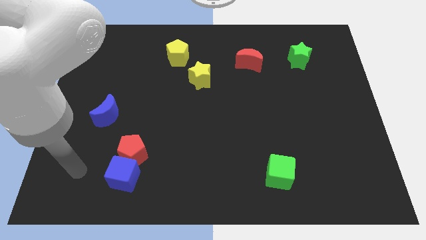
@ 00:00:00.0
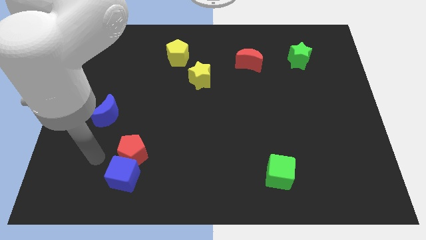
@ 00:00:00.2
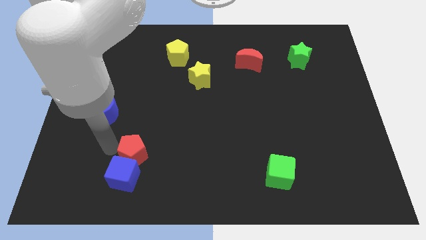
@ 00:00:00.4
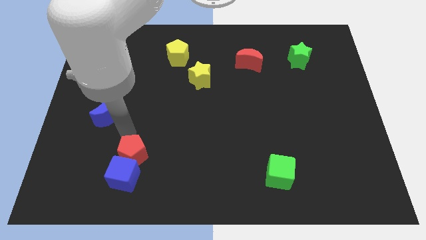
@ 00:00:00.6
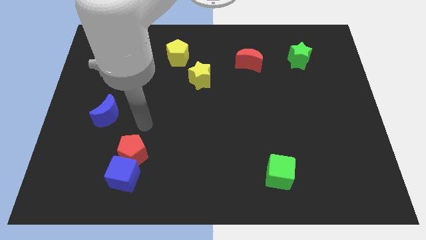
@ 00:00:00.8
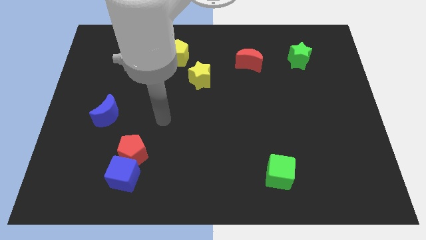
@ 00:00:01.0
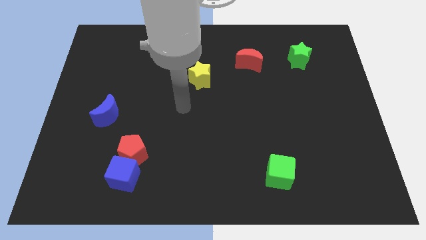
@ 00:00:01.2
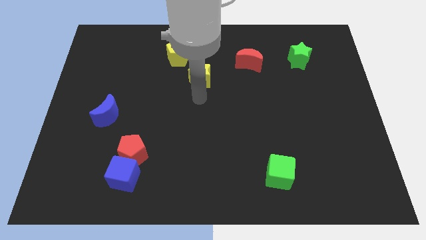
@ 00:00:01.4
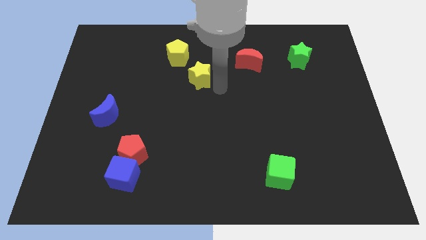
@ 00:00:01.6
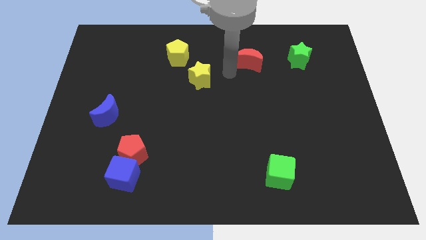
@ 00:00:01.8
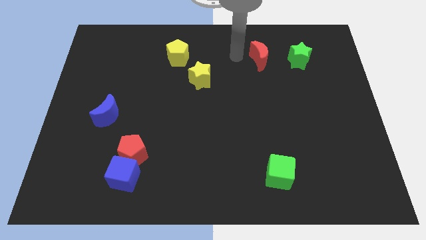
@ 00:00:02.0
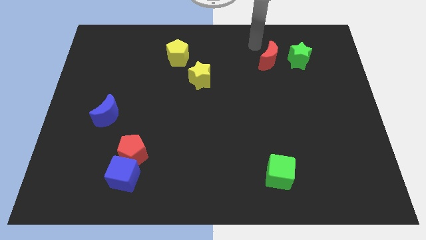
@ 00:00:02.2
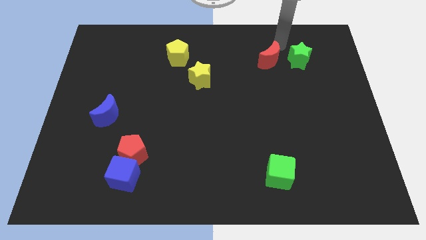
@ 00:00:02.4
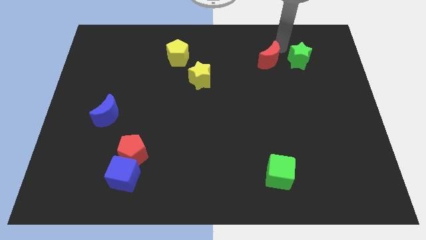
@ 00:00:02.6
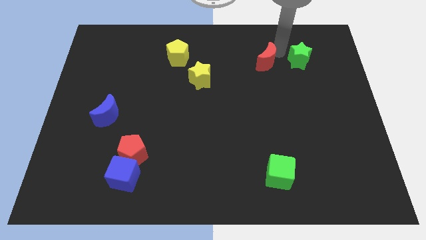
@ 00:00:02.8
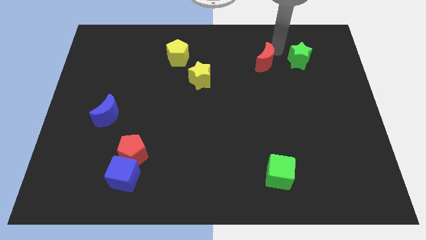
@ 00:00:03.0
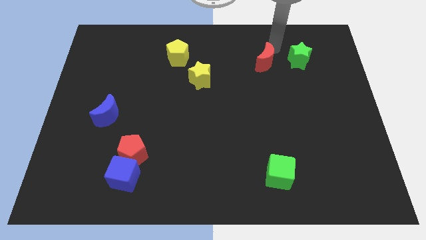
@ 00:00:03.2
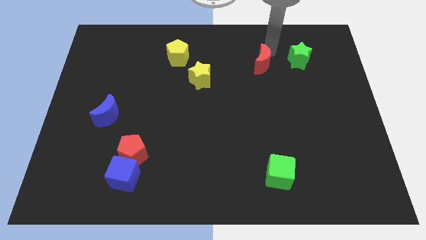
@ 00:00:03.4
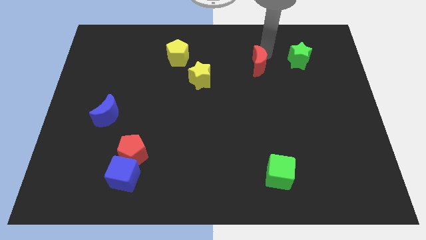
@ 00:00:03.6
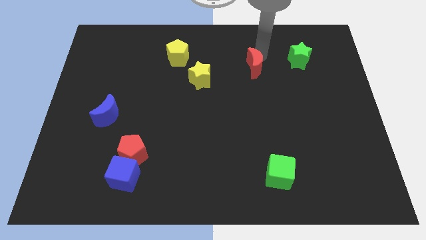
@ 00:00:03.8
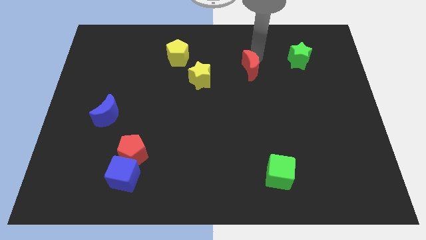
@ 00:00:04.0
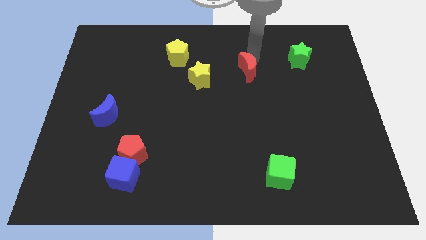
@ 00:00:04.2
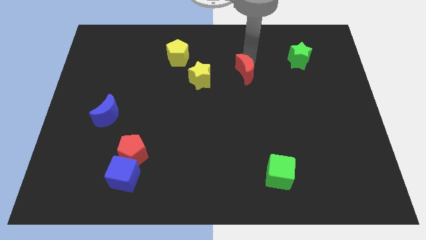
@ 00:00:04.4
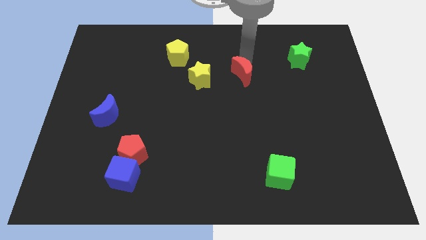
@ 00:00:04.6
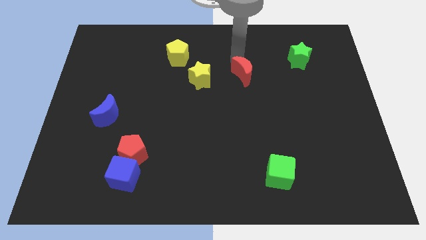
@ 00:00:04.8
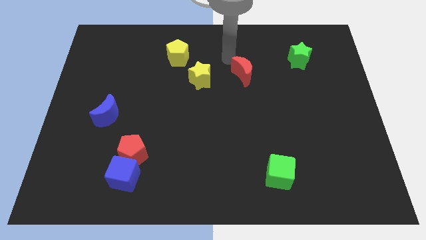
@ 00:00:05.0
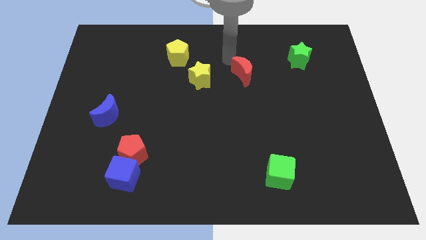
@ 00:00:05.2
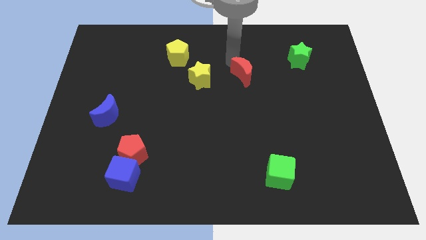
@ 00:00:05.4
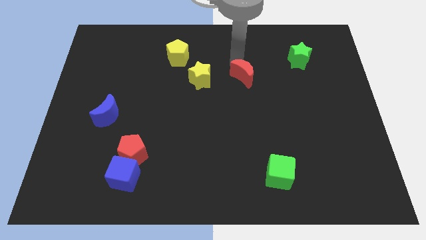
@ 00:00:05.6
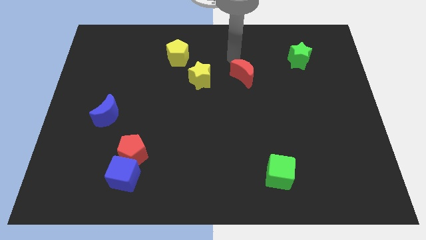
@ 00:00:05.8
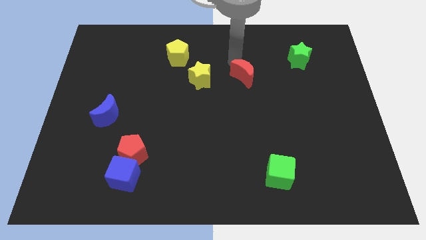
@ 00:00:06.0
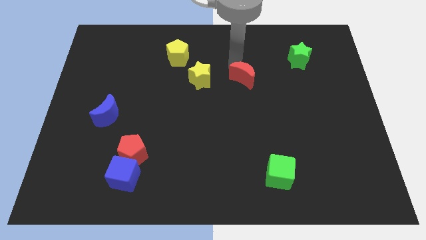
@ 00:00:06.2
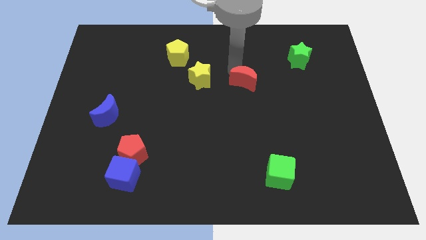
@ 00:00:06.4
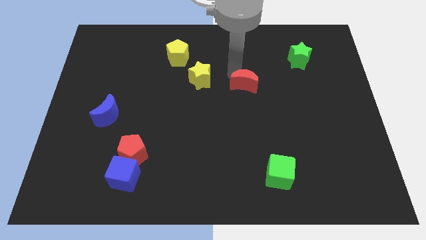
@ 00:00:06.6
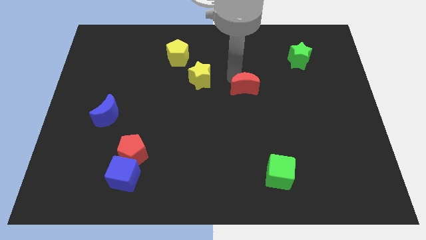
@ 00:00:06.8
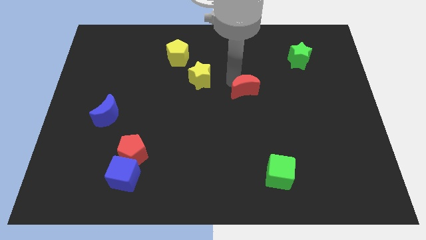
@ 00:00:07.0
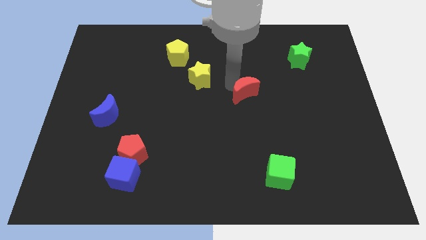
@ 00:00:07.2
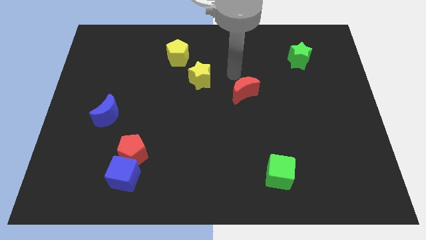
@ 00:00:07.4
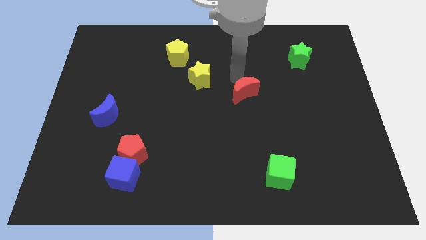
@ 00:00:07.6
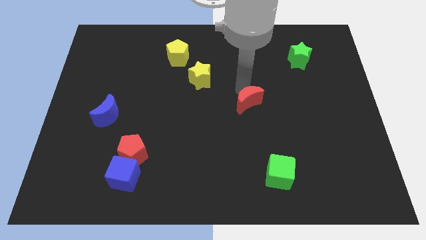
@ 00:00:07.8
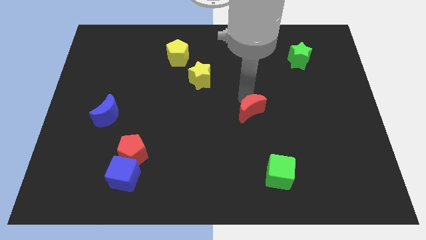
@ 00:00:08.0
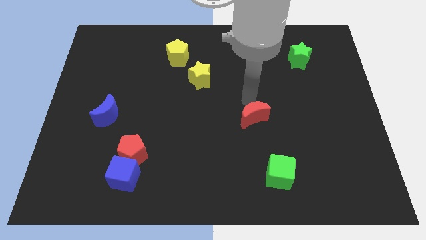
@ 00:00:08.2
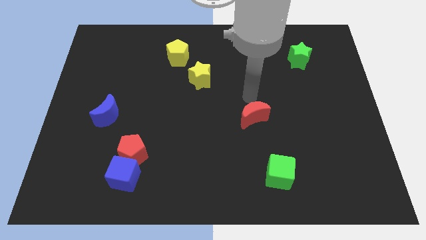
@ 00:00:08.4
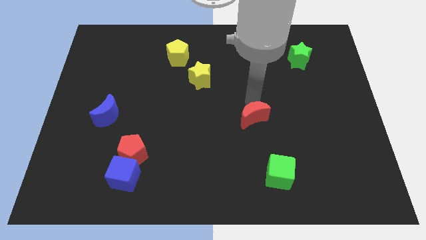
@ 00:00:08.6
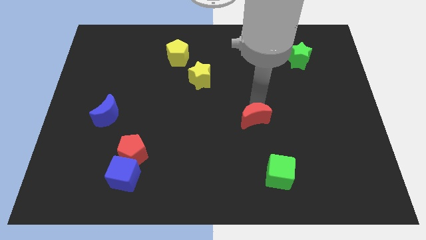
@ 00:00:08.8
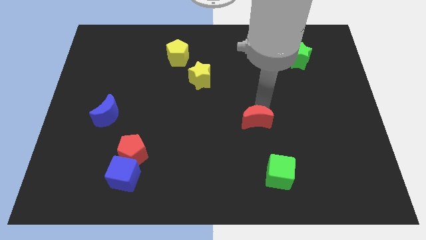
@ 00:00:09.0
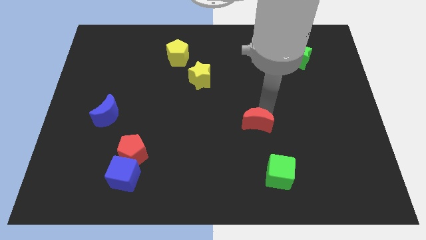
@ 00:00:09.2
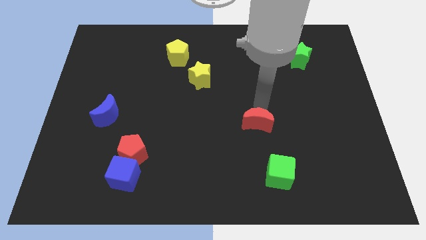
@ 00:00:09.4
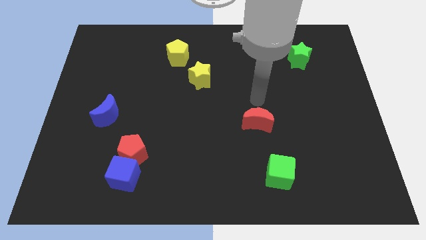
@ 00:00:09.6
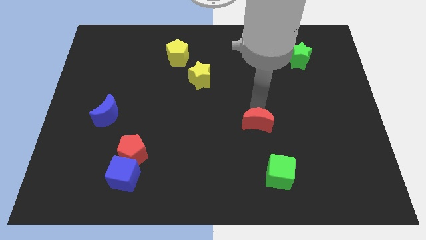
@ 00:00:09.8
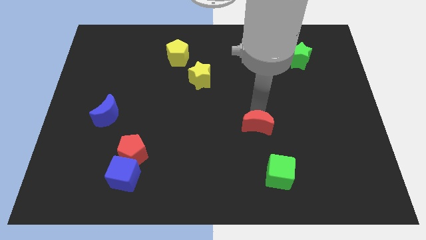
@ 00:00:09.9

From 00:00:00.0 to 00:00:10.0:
move the red moon downwards

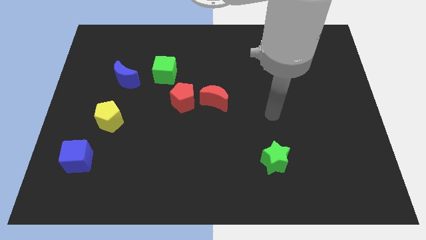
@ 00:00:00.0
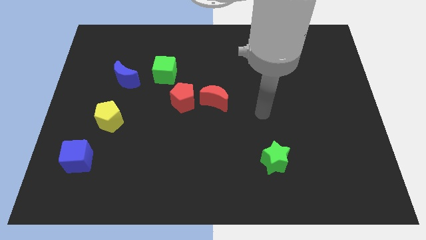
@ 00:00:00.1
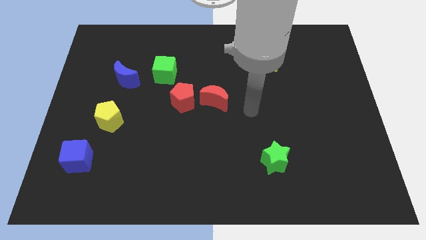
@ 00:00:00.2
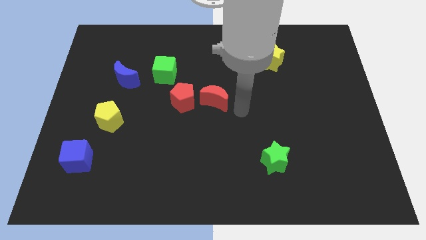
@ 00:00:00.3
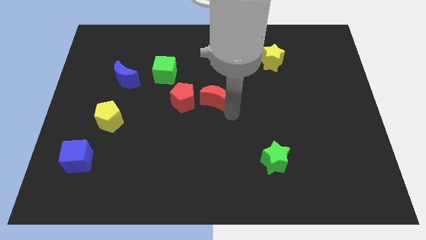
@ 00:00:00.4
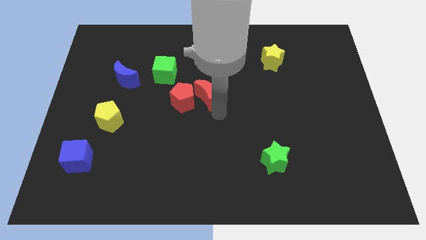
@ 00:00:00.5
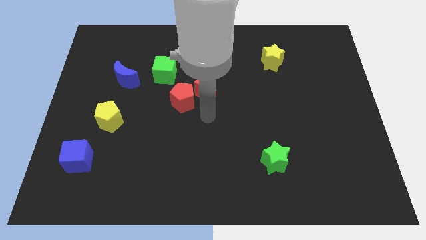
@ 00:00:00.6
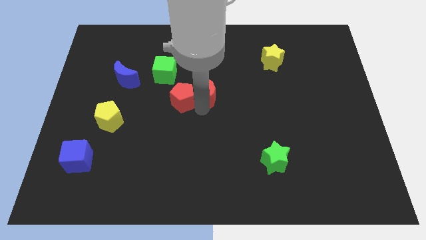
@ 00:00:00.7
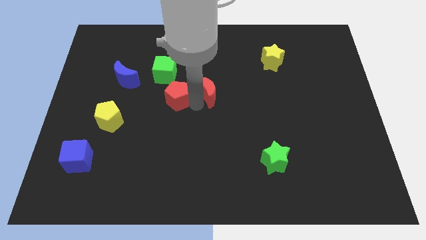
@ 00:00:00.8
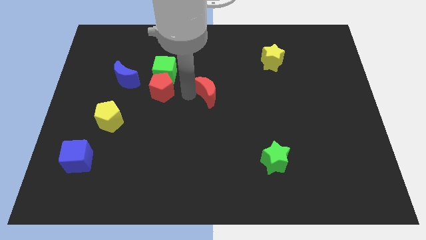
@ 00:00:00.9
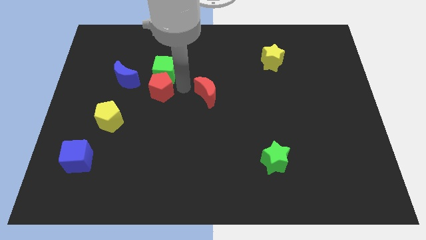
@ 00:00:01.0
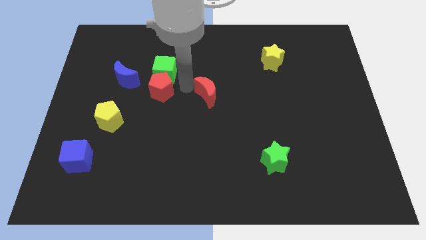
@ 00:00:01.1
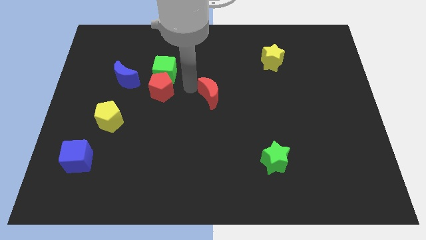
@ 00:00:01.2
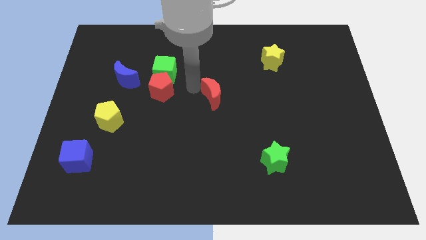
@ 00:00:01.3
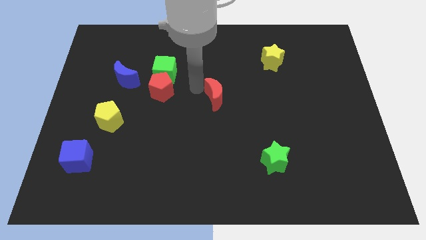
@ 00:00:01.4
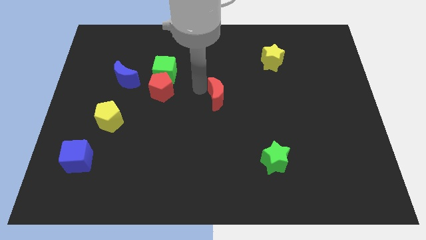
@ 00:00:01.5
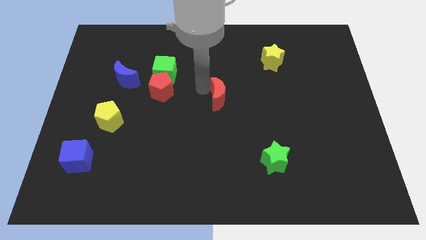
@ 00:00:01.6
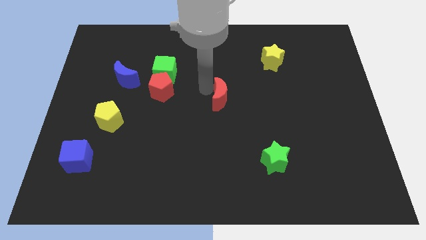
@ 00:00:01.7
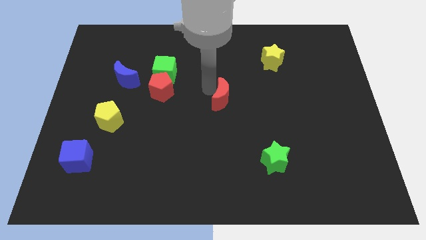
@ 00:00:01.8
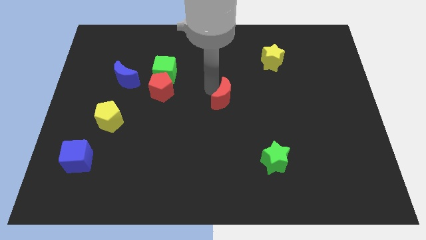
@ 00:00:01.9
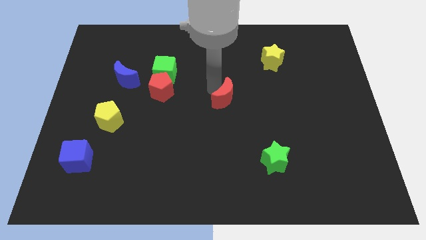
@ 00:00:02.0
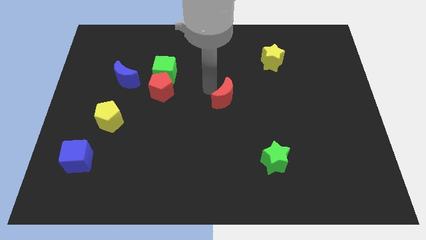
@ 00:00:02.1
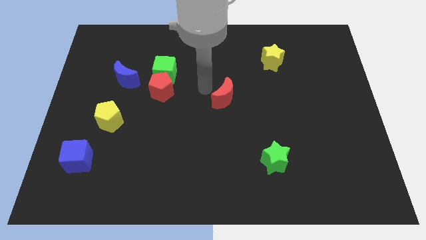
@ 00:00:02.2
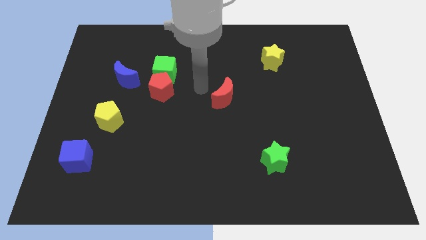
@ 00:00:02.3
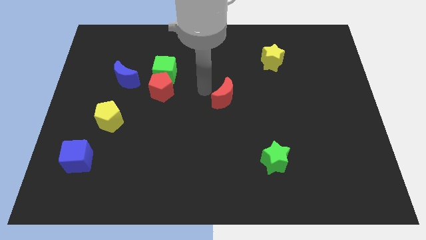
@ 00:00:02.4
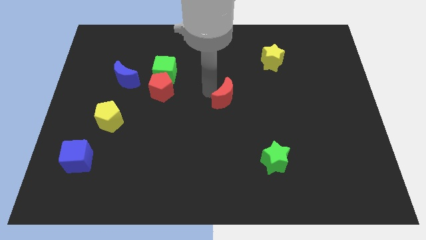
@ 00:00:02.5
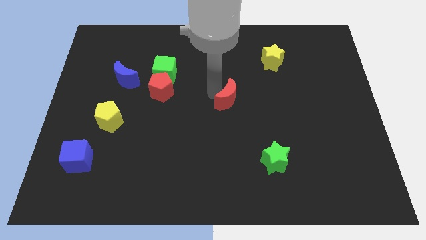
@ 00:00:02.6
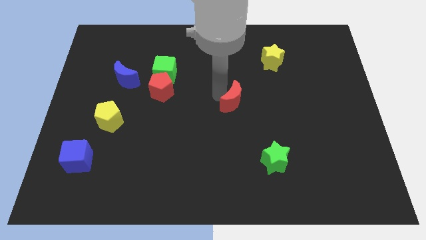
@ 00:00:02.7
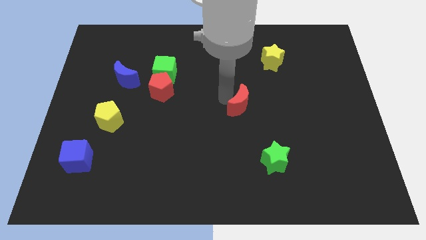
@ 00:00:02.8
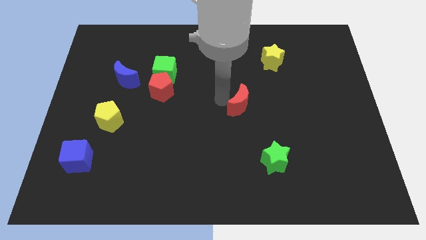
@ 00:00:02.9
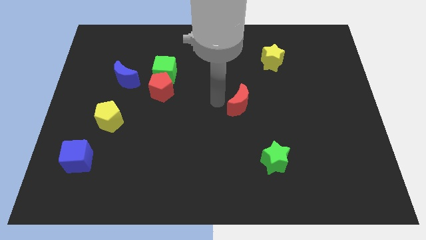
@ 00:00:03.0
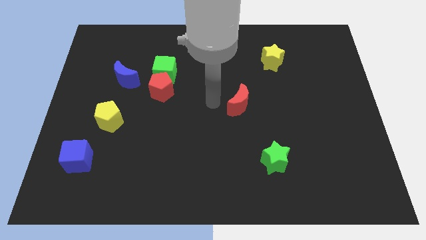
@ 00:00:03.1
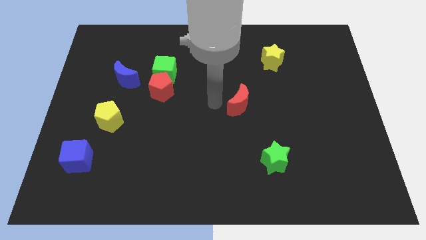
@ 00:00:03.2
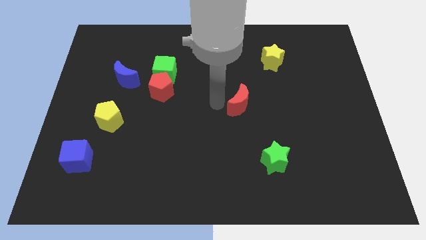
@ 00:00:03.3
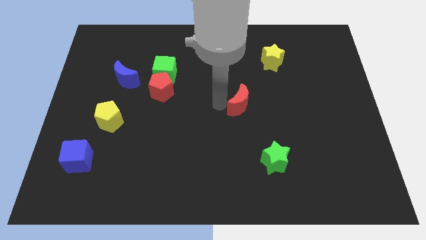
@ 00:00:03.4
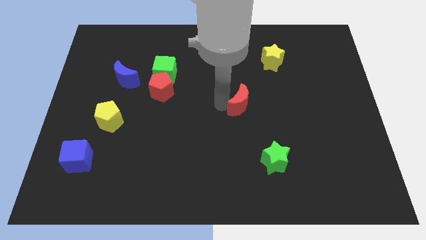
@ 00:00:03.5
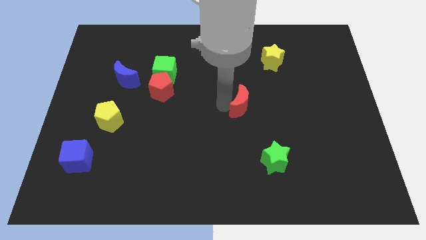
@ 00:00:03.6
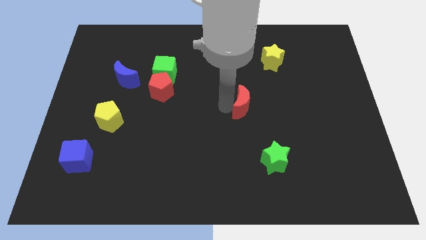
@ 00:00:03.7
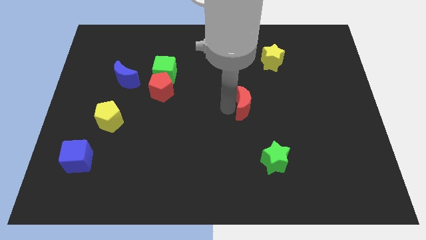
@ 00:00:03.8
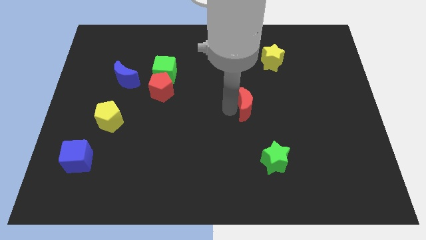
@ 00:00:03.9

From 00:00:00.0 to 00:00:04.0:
slightly move the red moon to the right
